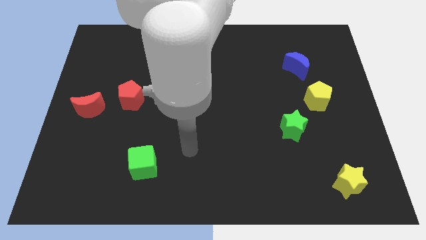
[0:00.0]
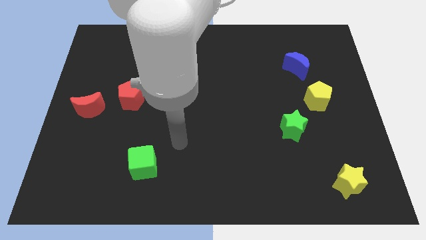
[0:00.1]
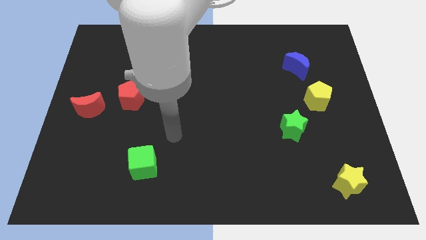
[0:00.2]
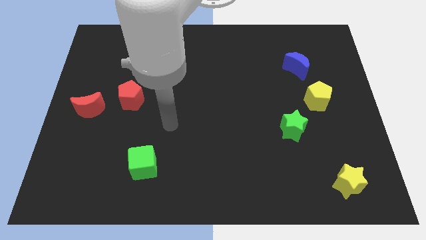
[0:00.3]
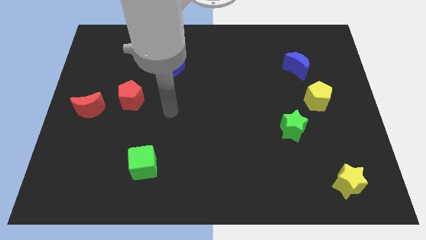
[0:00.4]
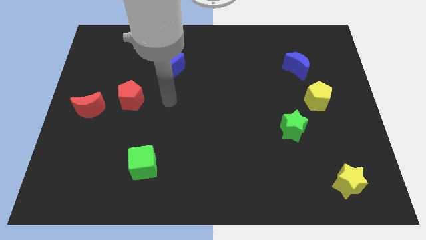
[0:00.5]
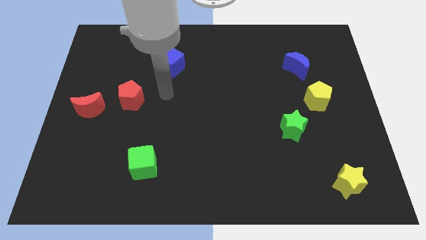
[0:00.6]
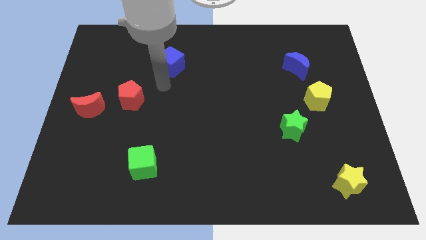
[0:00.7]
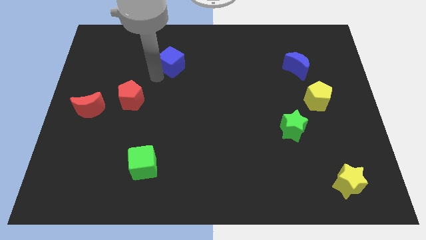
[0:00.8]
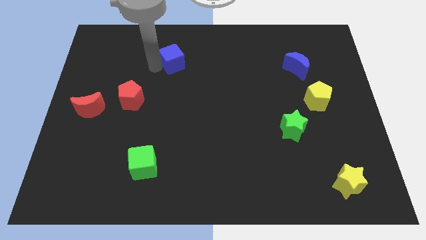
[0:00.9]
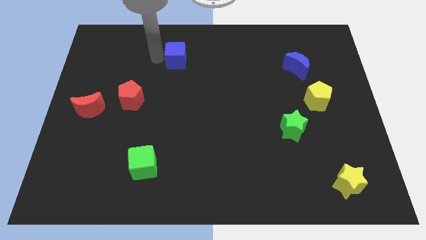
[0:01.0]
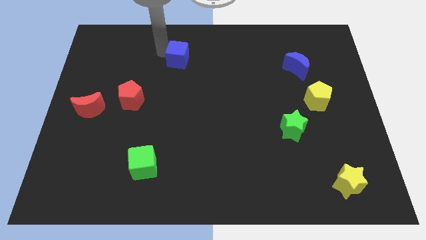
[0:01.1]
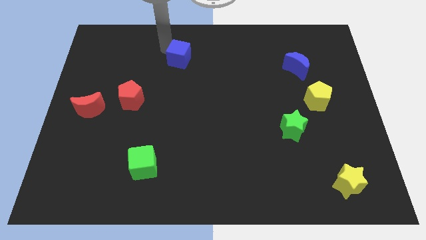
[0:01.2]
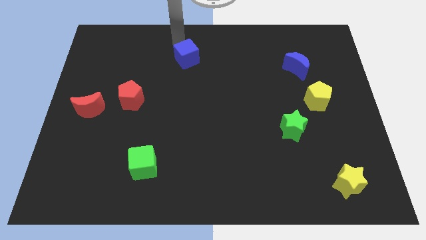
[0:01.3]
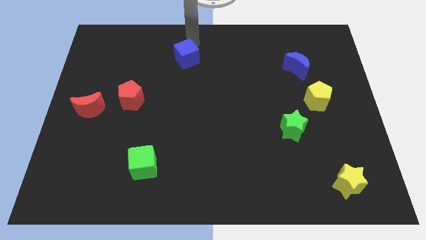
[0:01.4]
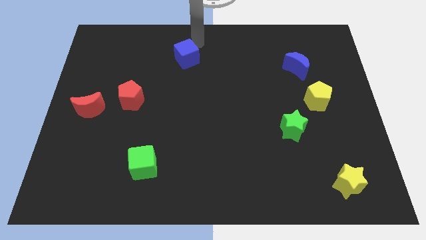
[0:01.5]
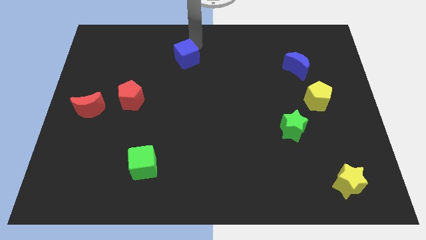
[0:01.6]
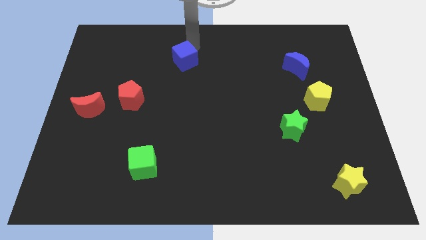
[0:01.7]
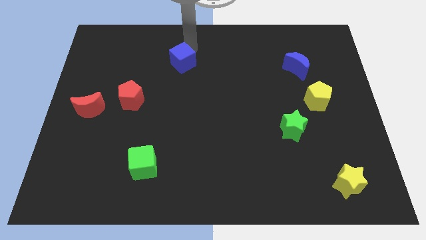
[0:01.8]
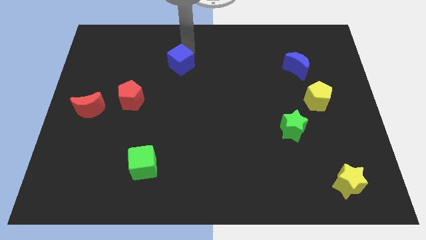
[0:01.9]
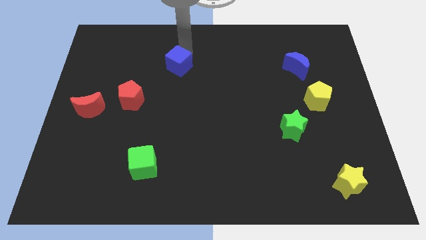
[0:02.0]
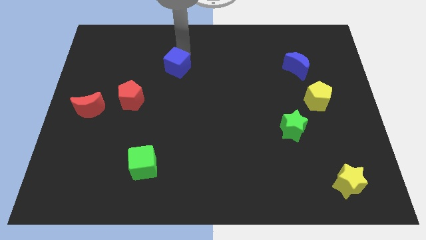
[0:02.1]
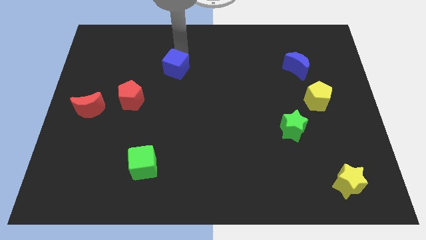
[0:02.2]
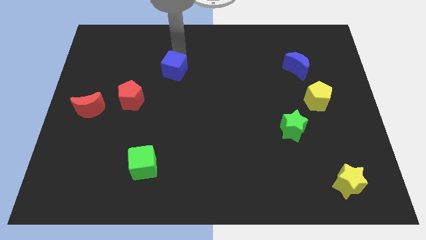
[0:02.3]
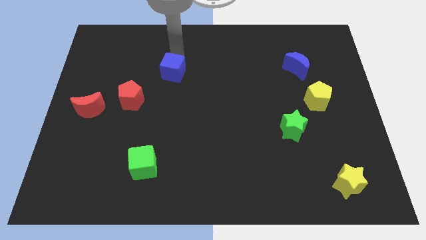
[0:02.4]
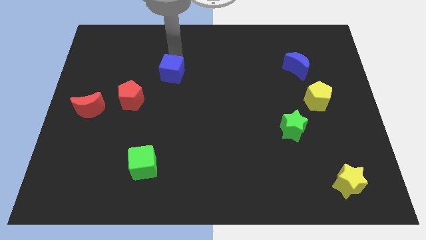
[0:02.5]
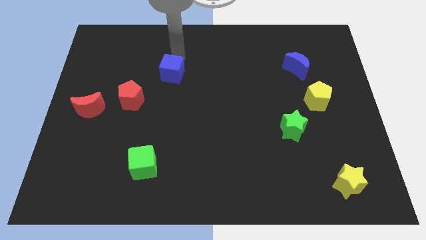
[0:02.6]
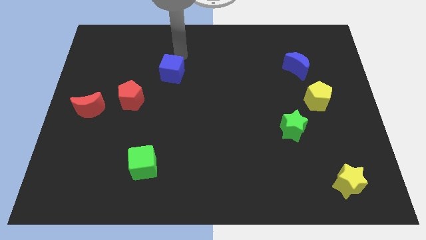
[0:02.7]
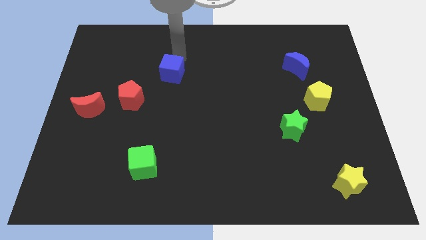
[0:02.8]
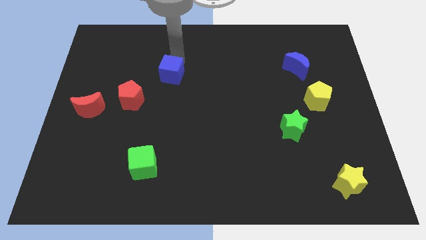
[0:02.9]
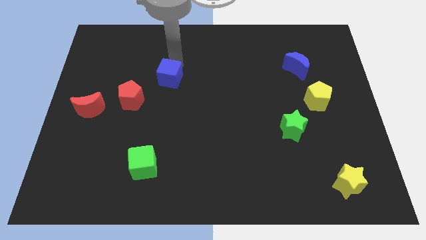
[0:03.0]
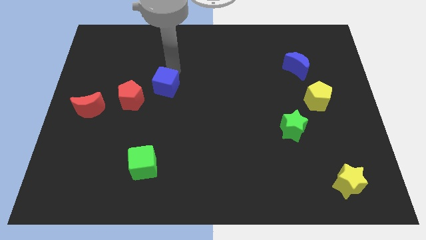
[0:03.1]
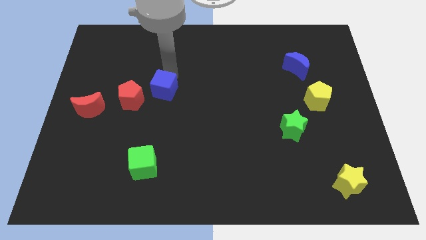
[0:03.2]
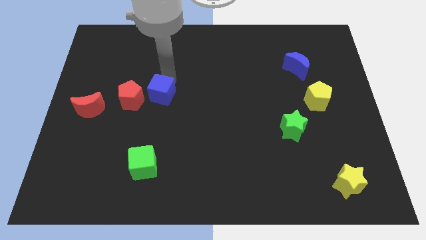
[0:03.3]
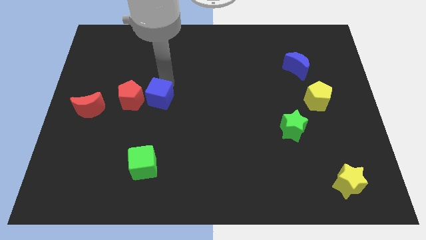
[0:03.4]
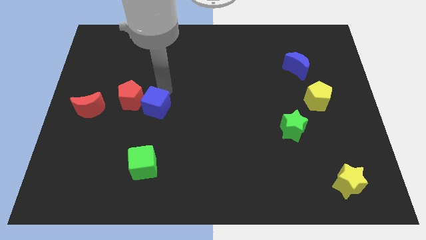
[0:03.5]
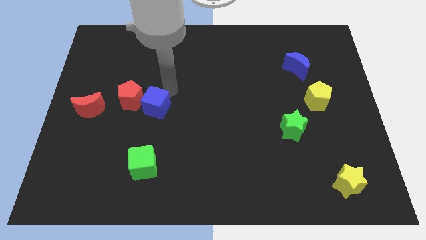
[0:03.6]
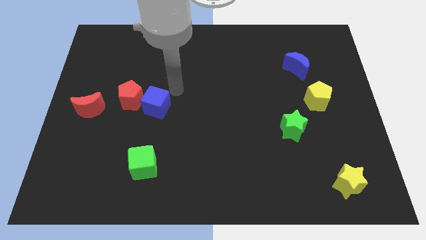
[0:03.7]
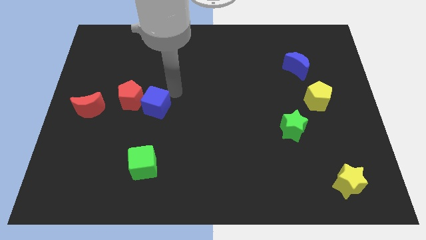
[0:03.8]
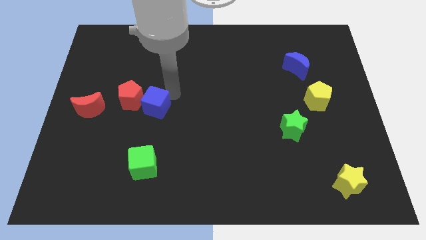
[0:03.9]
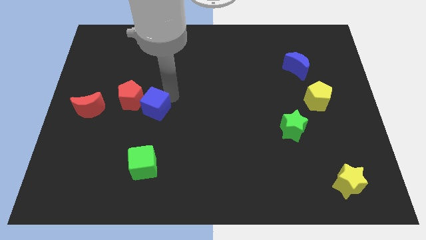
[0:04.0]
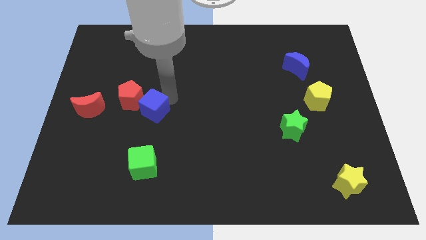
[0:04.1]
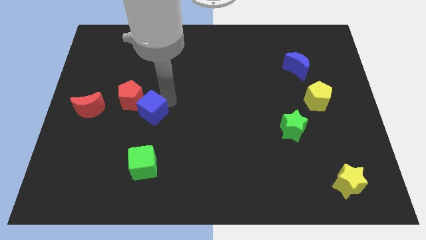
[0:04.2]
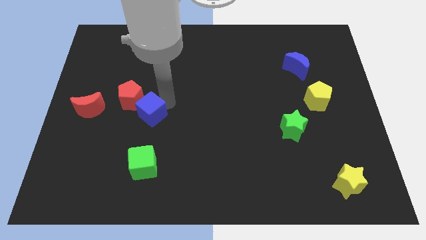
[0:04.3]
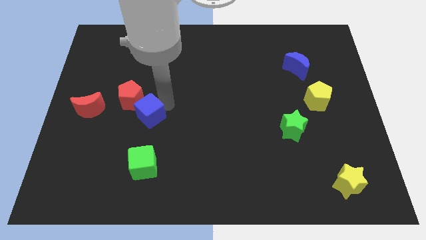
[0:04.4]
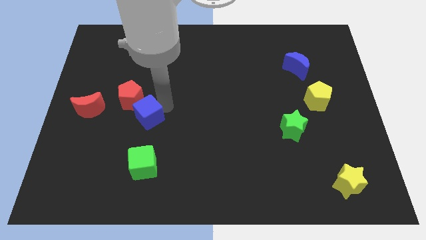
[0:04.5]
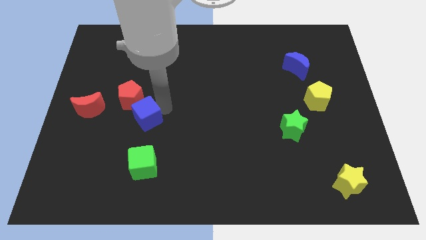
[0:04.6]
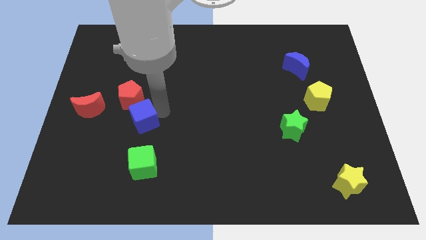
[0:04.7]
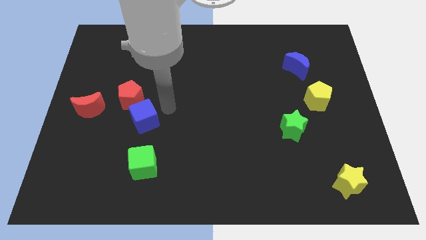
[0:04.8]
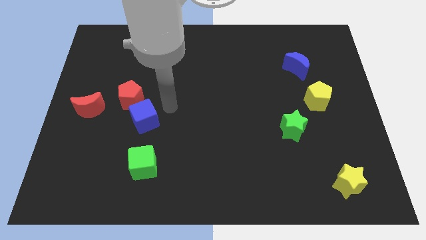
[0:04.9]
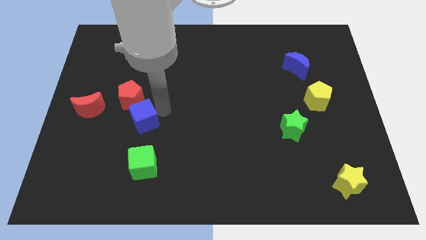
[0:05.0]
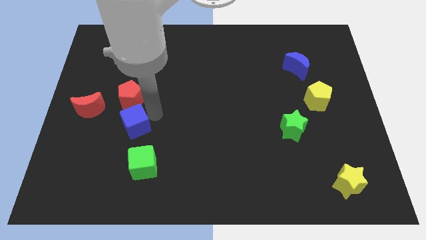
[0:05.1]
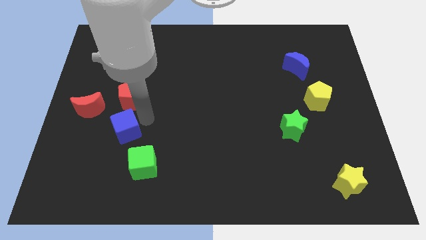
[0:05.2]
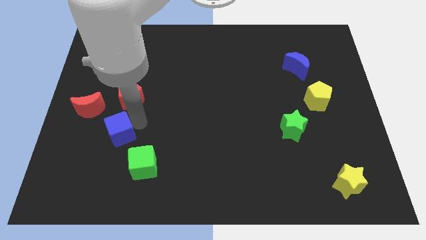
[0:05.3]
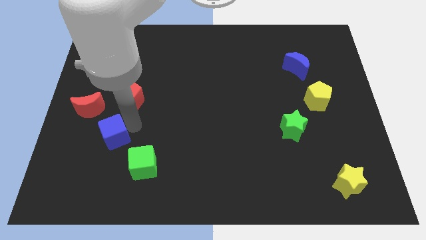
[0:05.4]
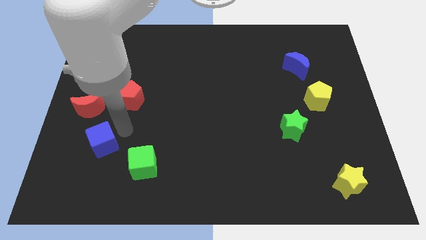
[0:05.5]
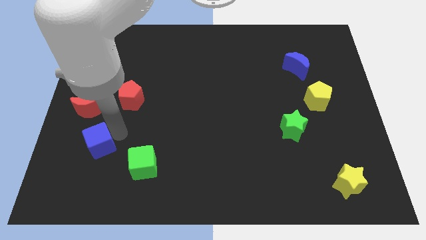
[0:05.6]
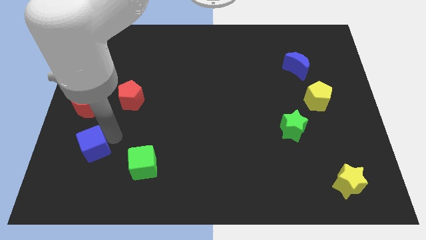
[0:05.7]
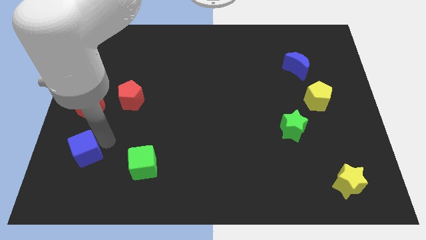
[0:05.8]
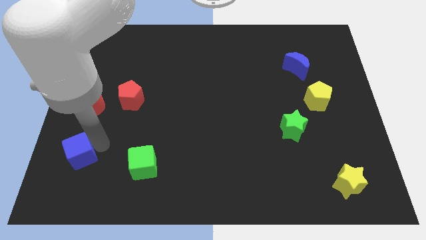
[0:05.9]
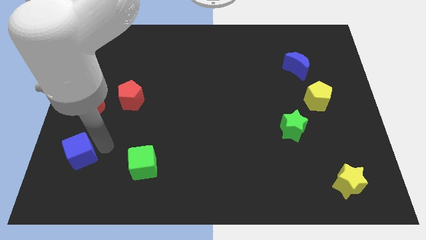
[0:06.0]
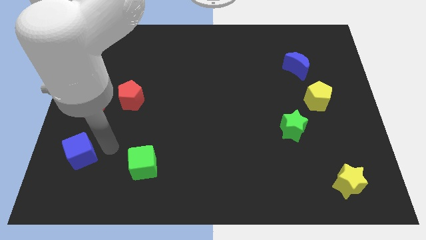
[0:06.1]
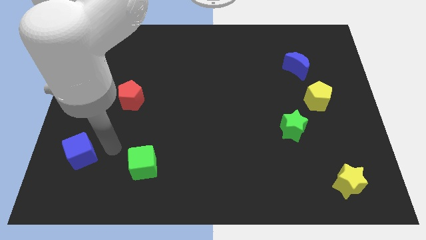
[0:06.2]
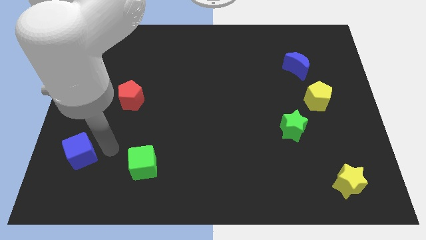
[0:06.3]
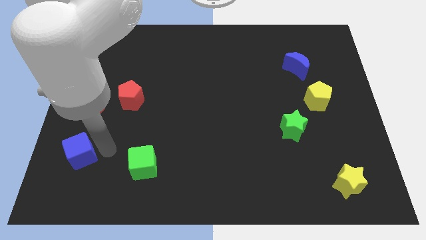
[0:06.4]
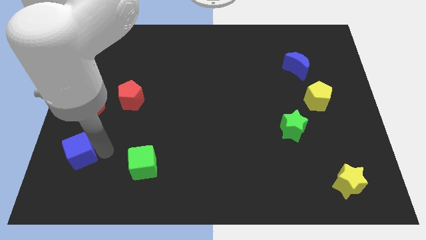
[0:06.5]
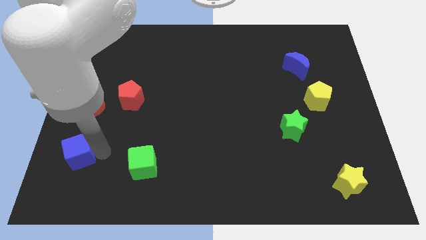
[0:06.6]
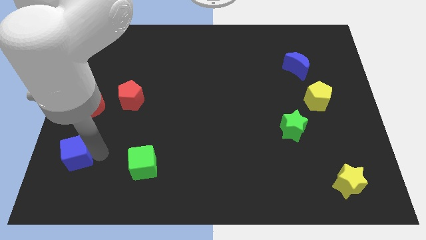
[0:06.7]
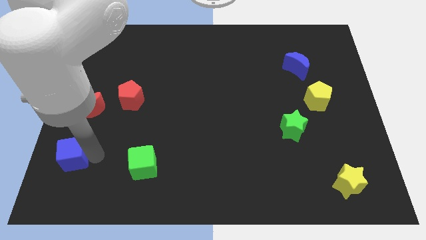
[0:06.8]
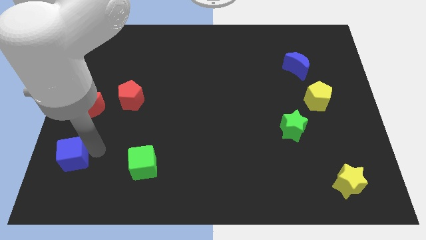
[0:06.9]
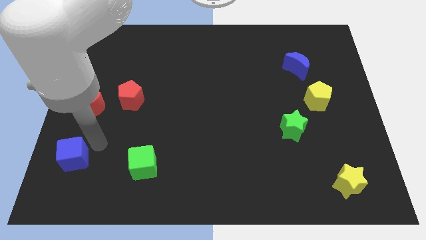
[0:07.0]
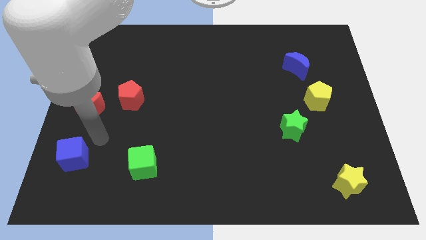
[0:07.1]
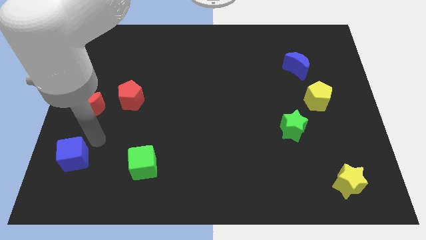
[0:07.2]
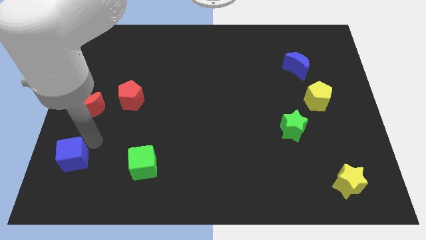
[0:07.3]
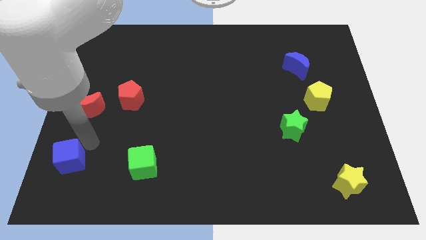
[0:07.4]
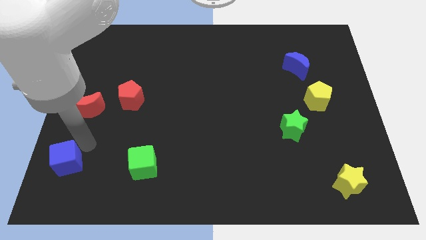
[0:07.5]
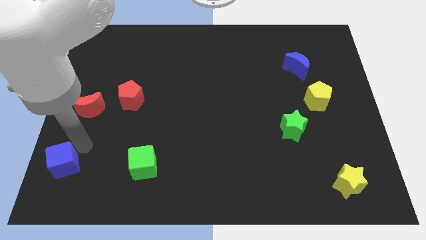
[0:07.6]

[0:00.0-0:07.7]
slide the blue cube to the bottom left corner
